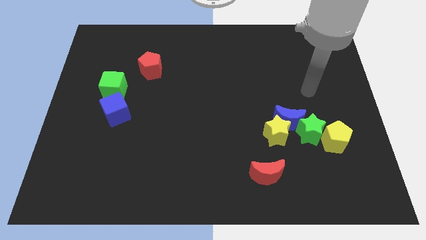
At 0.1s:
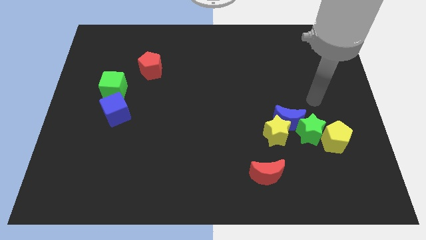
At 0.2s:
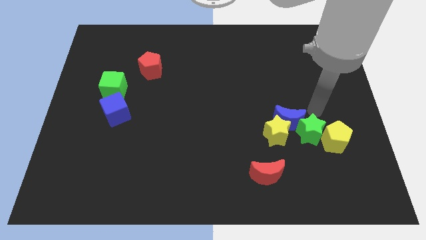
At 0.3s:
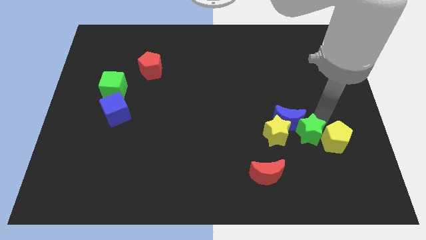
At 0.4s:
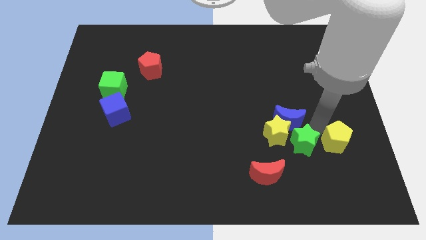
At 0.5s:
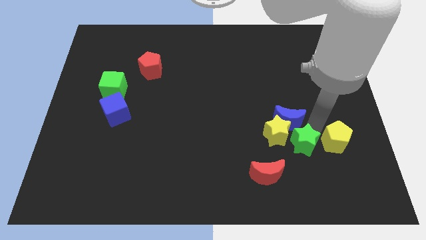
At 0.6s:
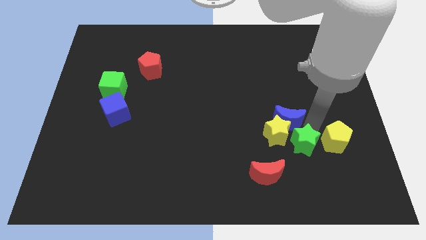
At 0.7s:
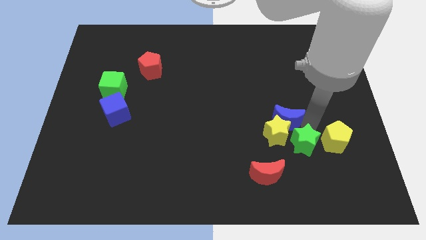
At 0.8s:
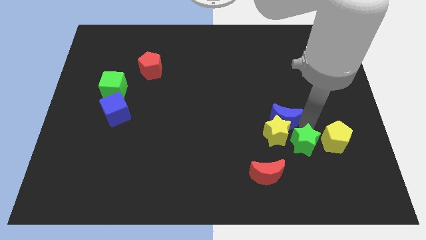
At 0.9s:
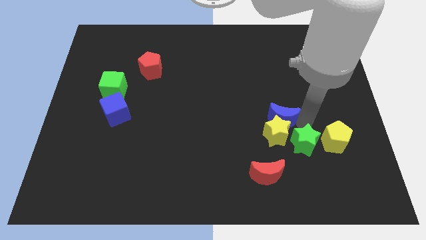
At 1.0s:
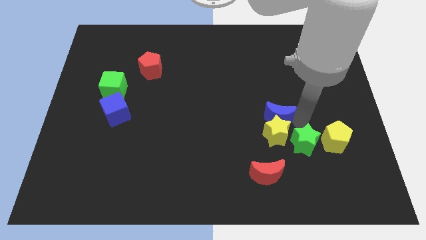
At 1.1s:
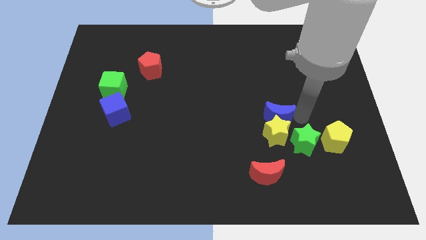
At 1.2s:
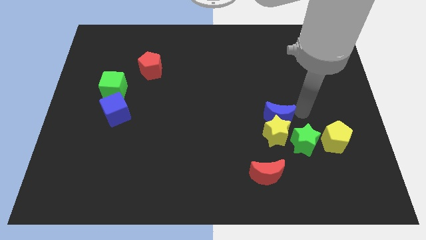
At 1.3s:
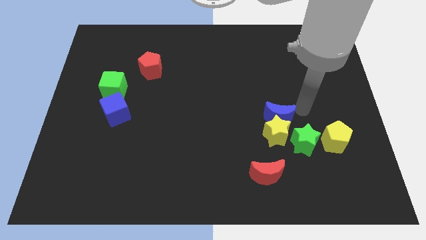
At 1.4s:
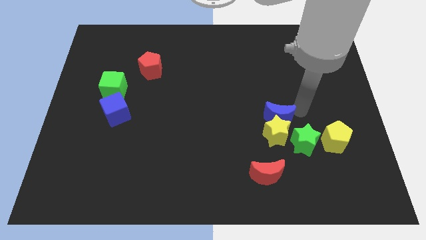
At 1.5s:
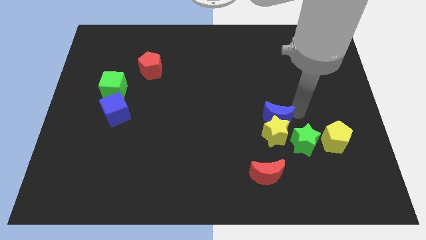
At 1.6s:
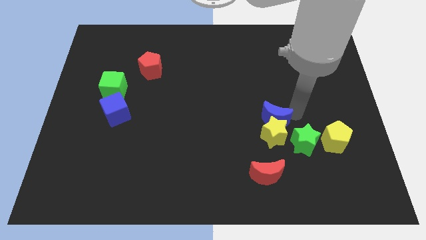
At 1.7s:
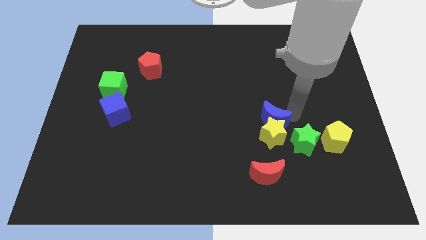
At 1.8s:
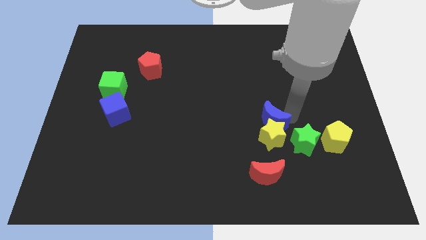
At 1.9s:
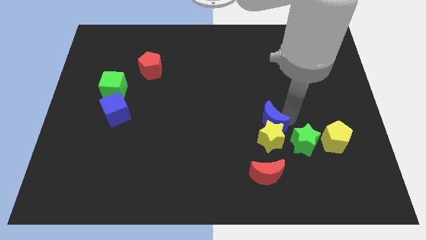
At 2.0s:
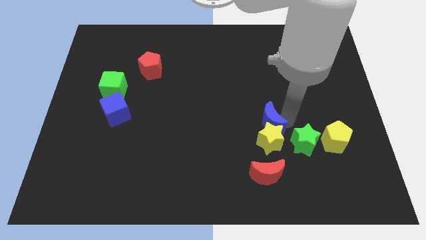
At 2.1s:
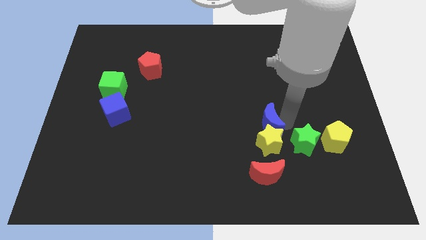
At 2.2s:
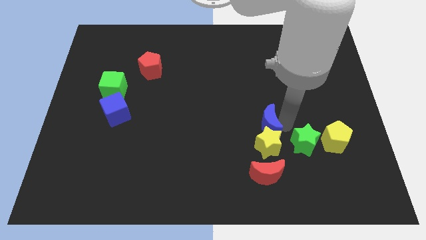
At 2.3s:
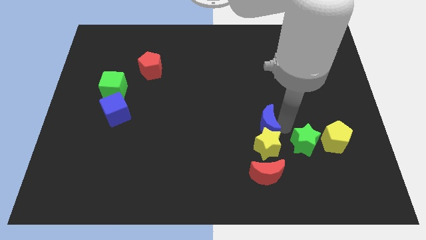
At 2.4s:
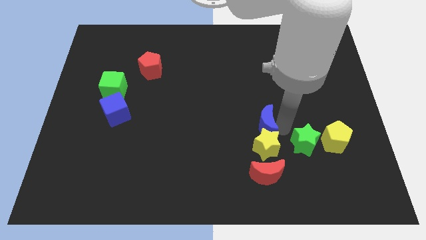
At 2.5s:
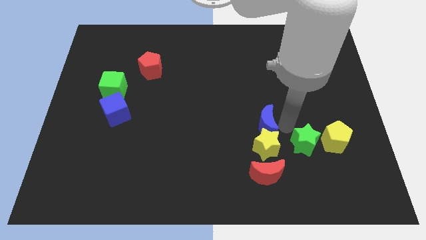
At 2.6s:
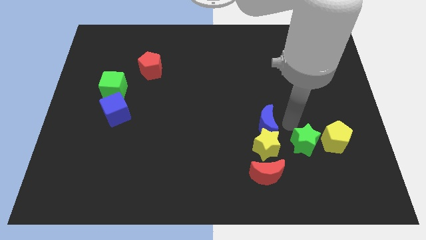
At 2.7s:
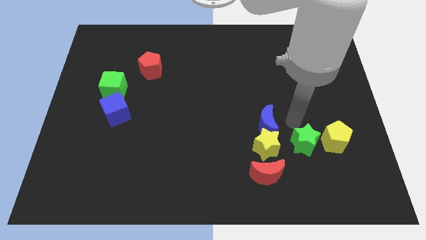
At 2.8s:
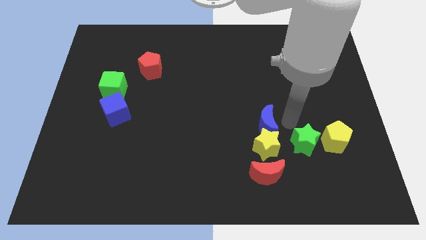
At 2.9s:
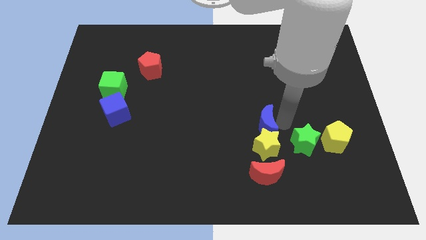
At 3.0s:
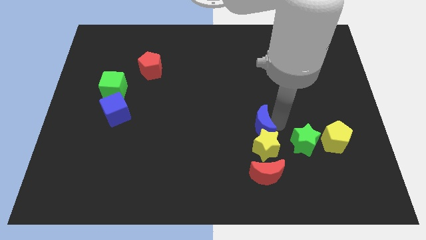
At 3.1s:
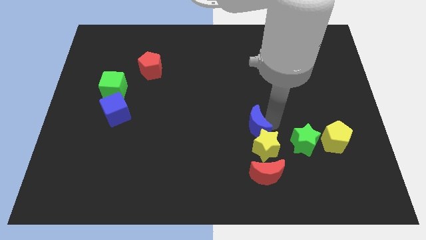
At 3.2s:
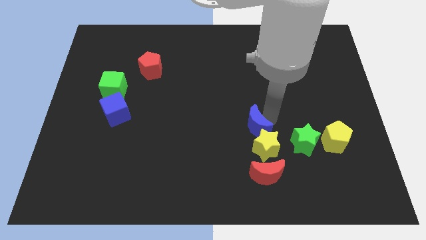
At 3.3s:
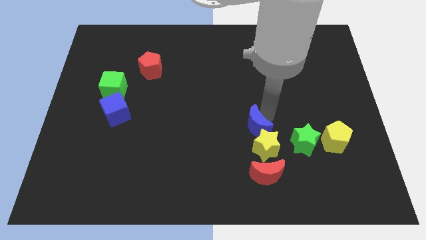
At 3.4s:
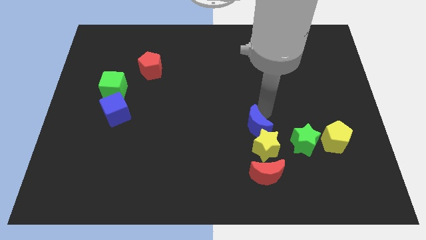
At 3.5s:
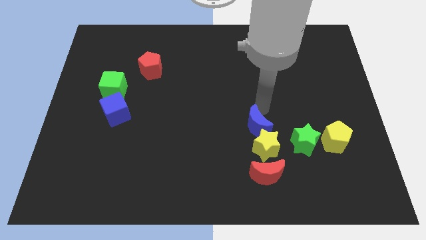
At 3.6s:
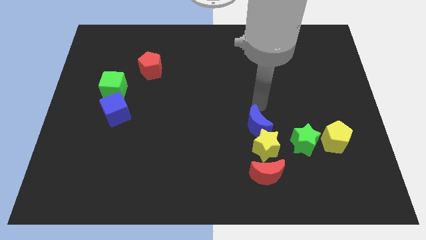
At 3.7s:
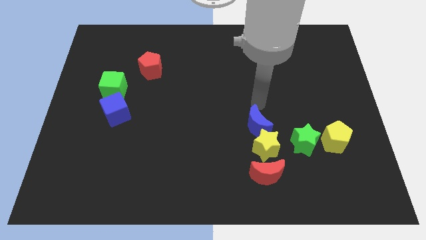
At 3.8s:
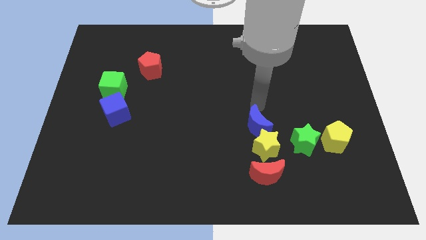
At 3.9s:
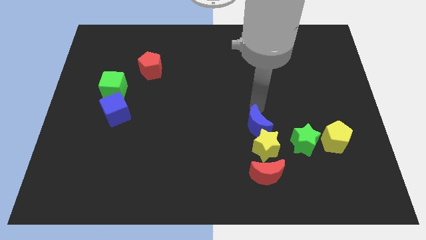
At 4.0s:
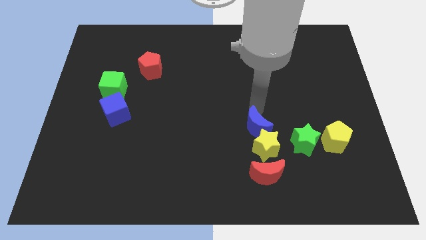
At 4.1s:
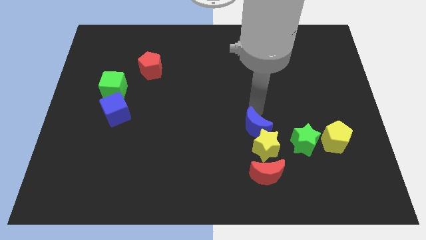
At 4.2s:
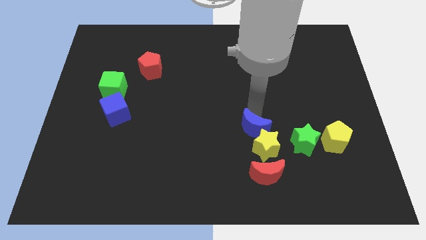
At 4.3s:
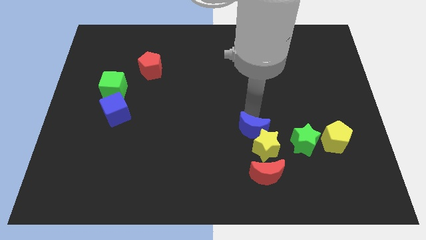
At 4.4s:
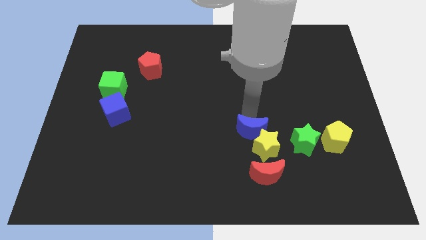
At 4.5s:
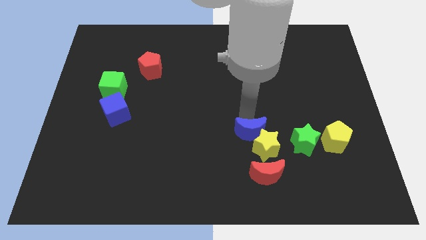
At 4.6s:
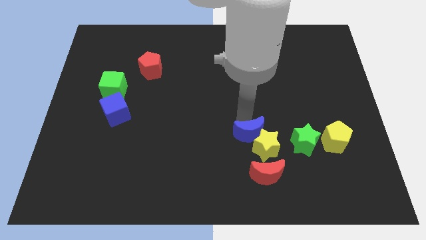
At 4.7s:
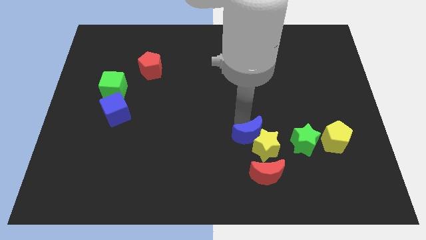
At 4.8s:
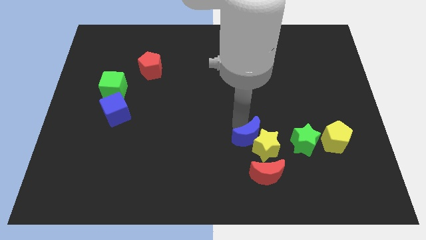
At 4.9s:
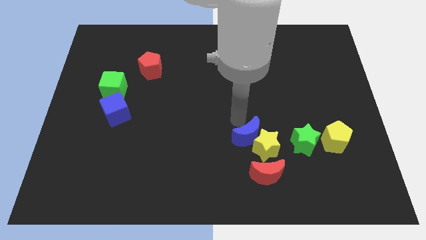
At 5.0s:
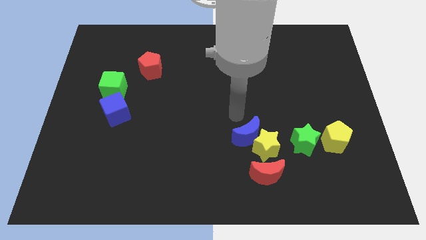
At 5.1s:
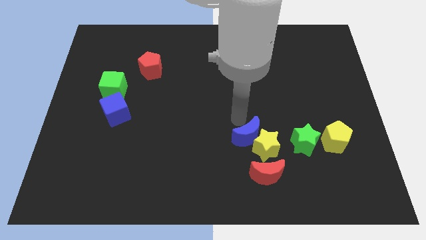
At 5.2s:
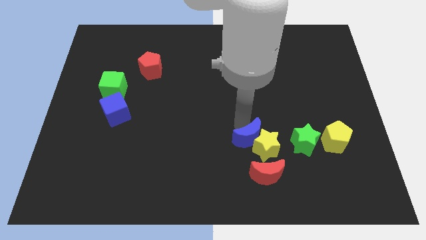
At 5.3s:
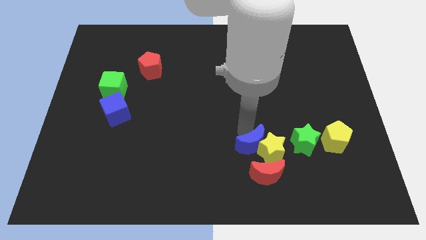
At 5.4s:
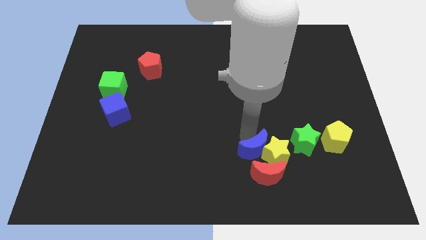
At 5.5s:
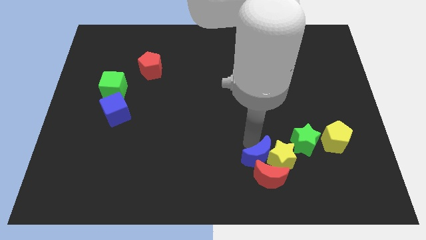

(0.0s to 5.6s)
slide the blue moon towards the red moon

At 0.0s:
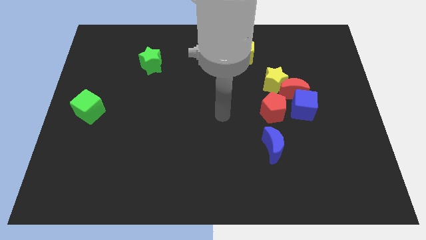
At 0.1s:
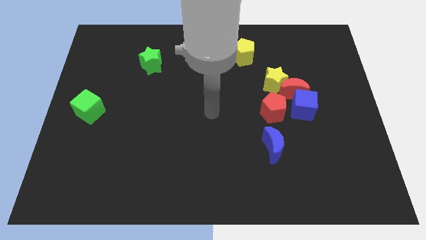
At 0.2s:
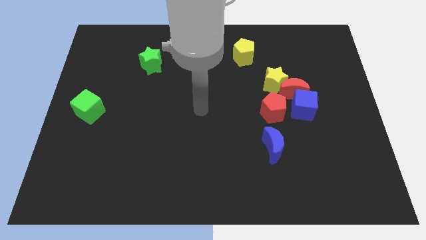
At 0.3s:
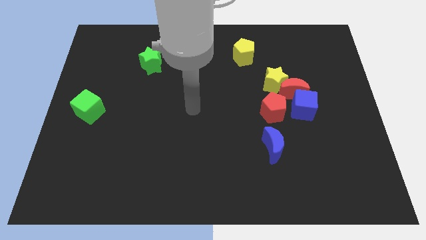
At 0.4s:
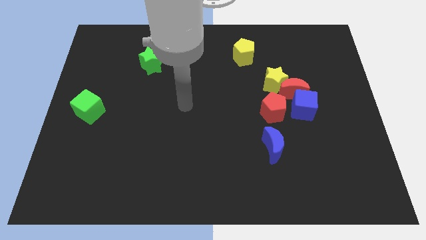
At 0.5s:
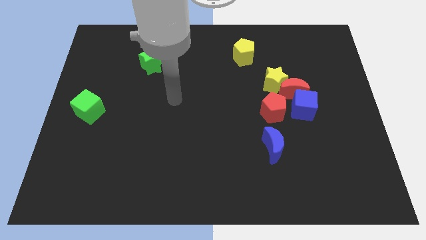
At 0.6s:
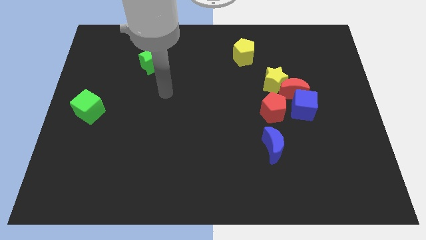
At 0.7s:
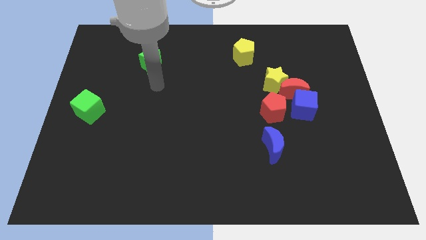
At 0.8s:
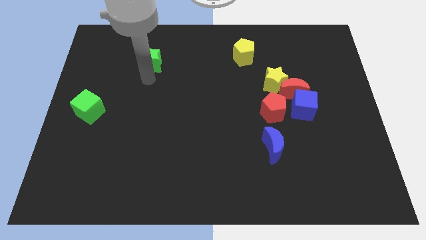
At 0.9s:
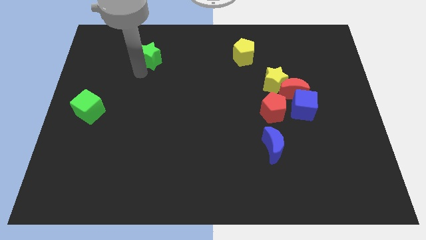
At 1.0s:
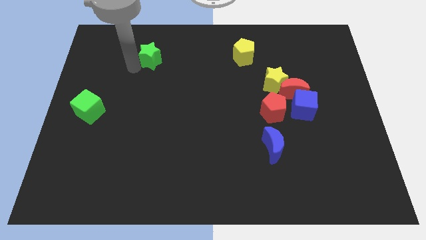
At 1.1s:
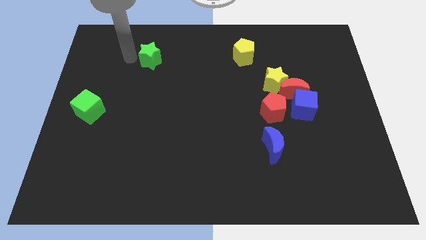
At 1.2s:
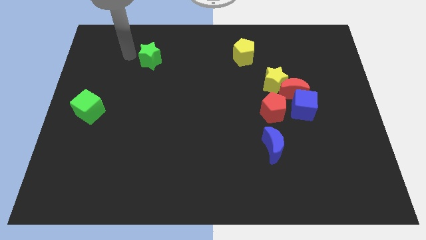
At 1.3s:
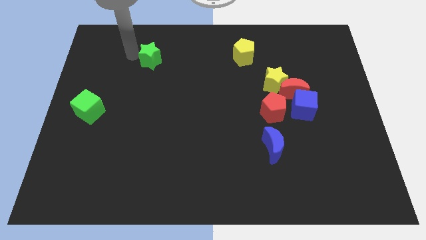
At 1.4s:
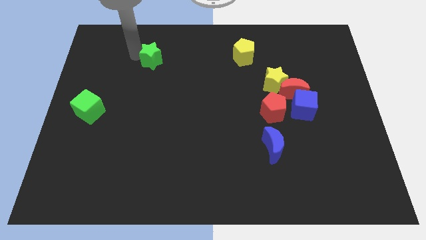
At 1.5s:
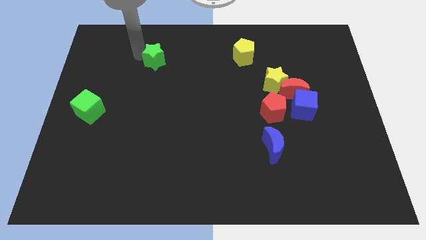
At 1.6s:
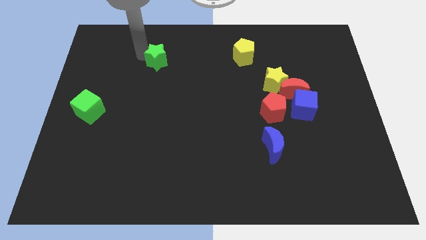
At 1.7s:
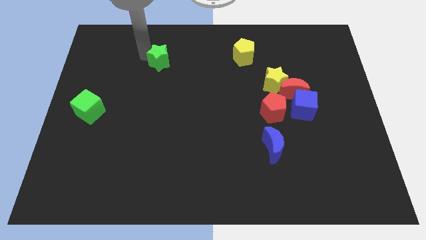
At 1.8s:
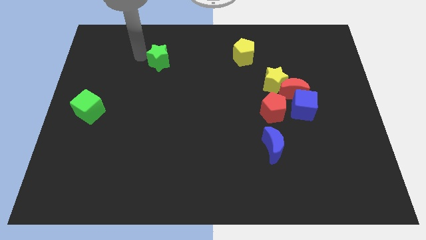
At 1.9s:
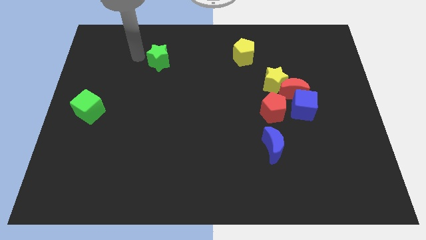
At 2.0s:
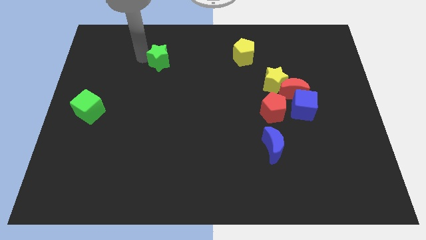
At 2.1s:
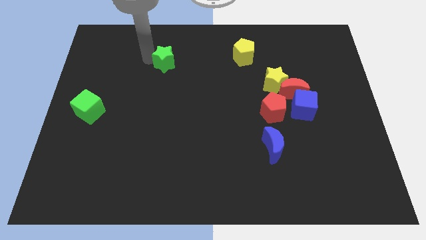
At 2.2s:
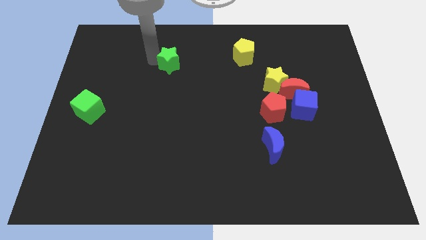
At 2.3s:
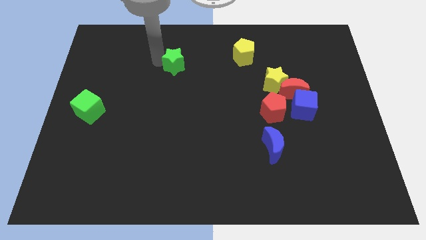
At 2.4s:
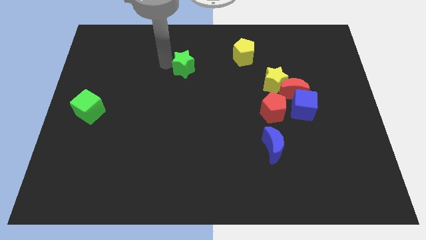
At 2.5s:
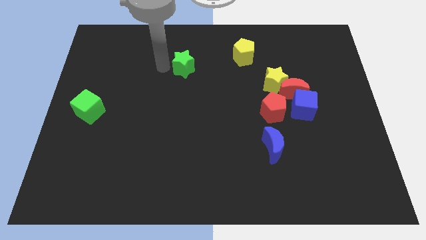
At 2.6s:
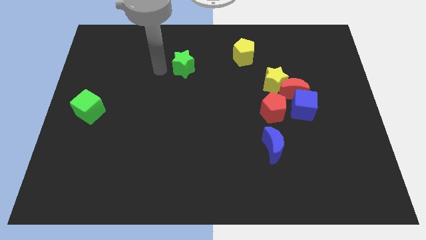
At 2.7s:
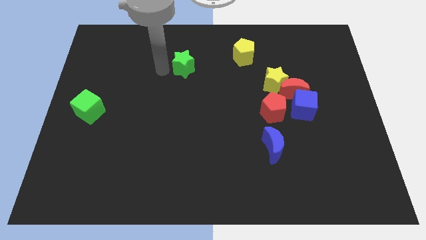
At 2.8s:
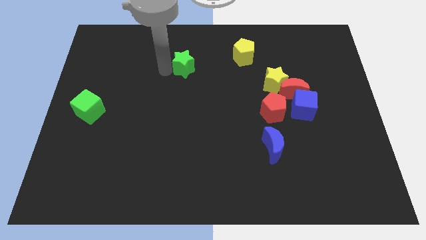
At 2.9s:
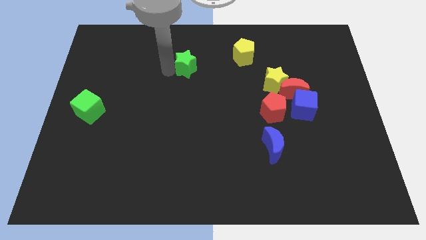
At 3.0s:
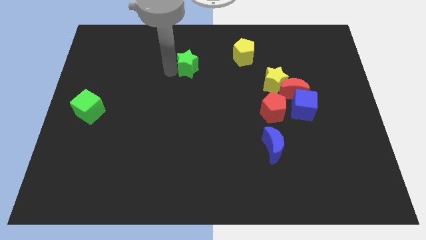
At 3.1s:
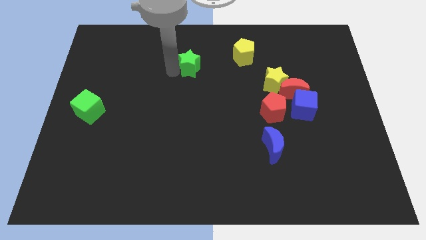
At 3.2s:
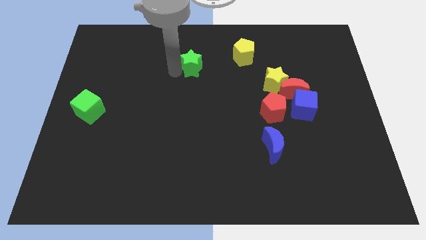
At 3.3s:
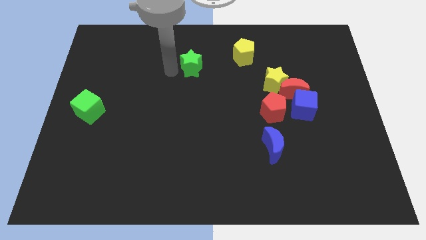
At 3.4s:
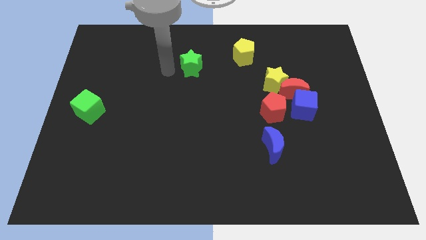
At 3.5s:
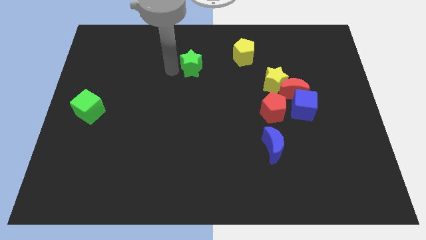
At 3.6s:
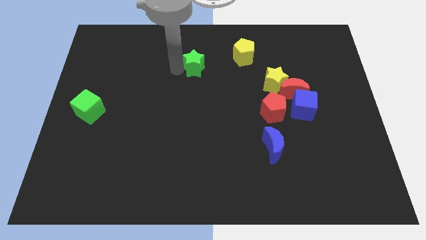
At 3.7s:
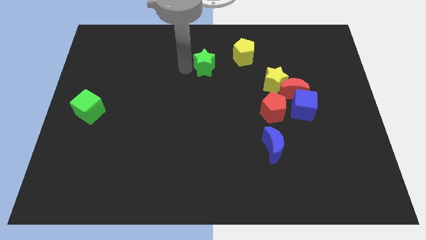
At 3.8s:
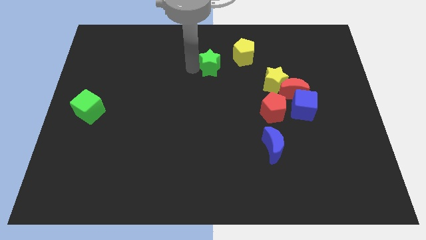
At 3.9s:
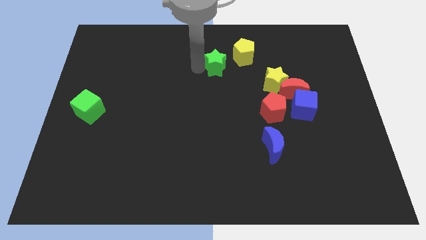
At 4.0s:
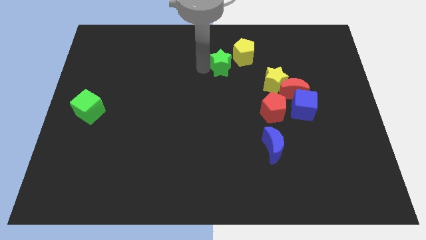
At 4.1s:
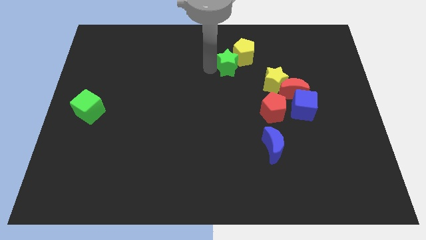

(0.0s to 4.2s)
slide the green star next to the yellow pentagon
